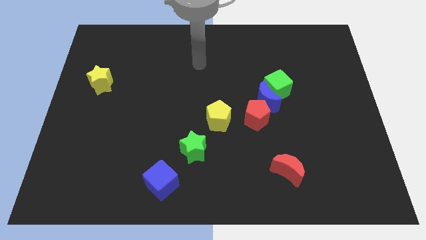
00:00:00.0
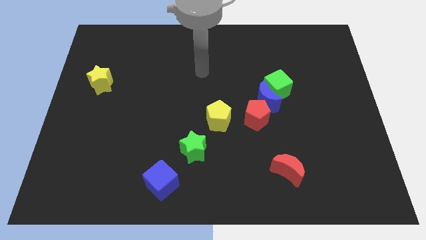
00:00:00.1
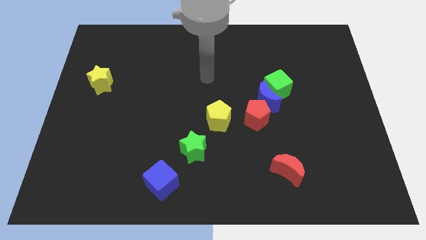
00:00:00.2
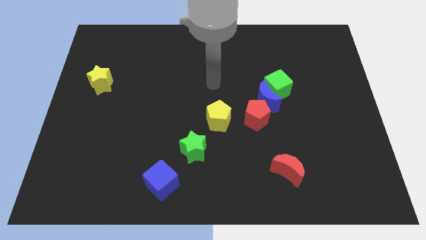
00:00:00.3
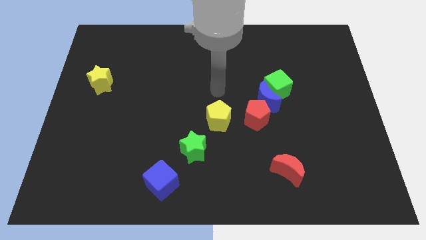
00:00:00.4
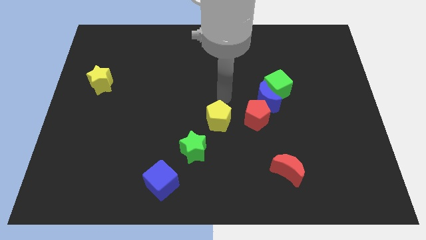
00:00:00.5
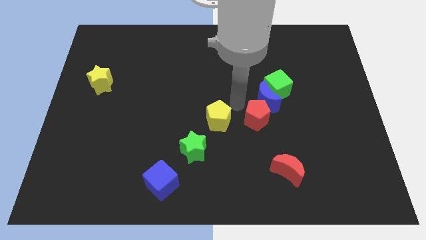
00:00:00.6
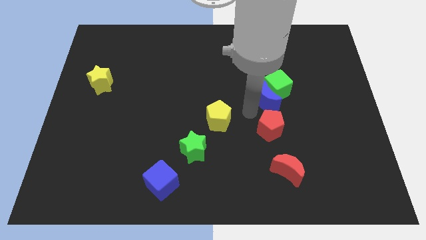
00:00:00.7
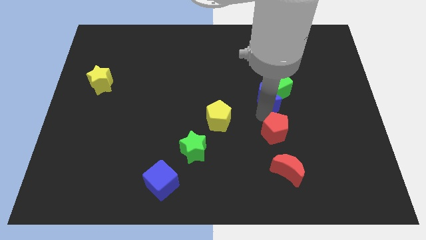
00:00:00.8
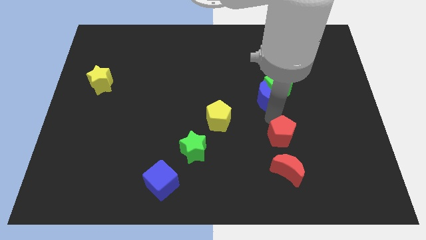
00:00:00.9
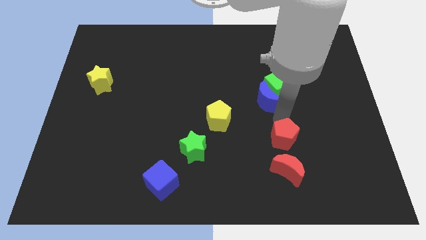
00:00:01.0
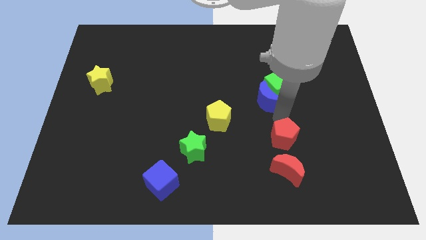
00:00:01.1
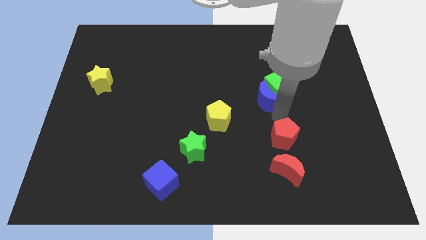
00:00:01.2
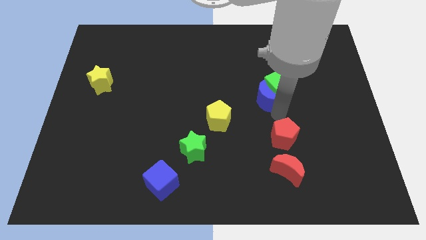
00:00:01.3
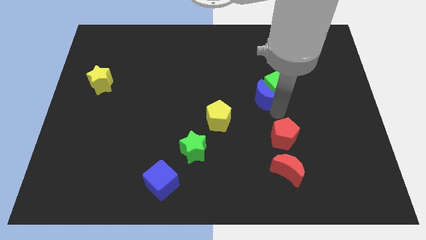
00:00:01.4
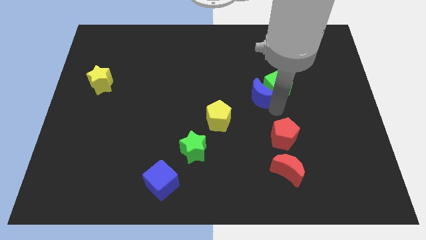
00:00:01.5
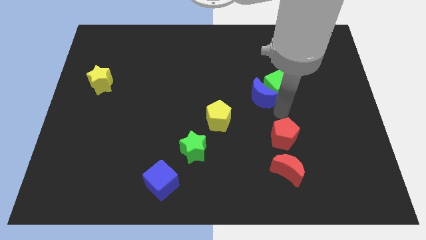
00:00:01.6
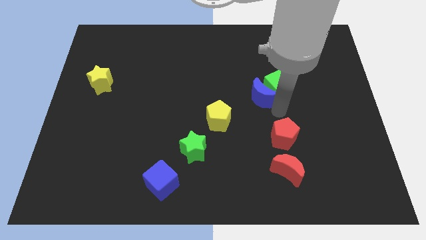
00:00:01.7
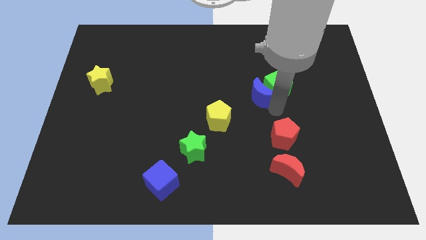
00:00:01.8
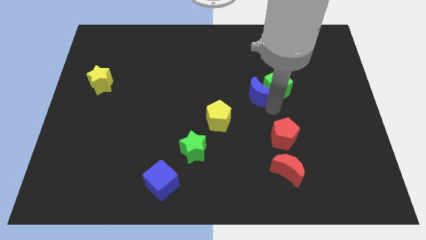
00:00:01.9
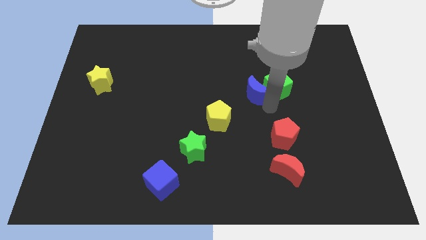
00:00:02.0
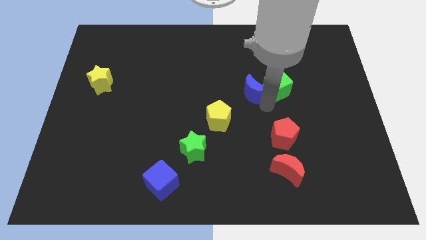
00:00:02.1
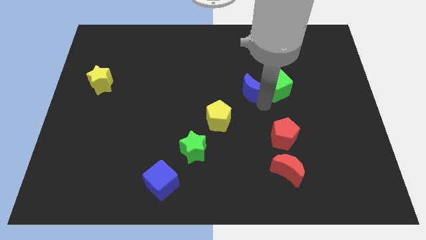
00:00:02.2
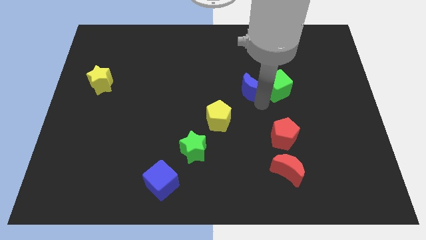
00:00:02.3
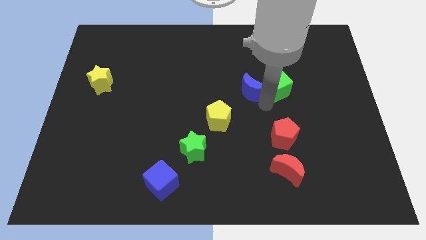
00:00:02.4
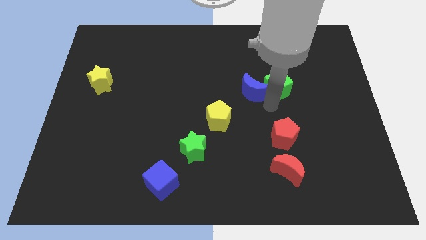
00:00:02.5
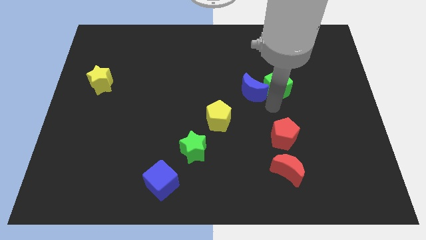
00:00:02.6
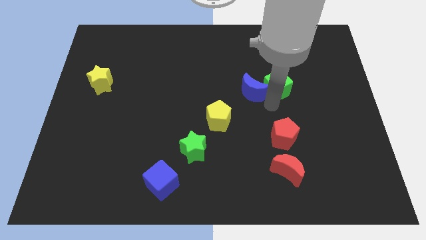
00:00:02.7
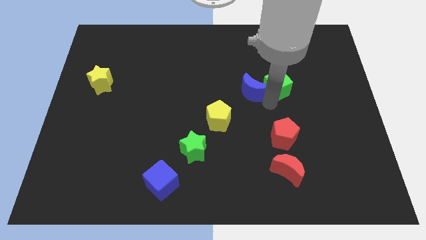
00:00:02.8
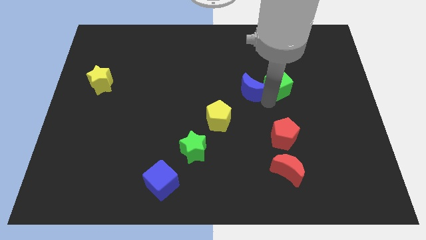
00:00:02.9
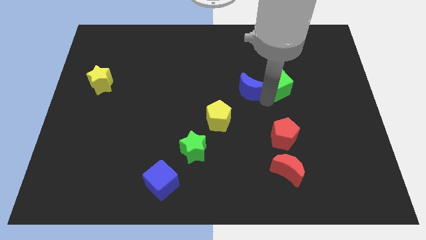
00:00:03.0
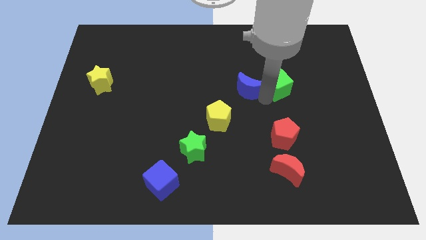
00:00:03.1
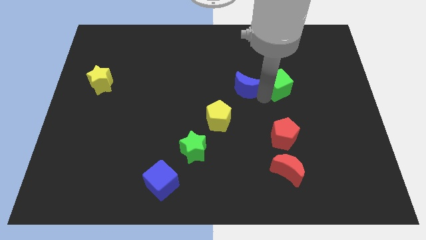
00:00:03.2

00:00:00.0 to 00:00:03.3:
separate the blue moon from the green cube and red pentagon

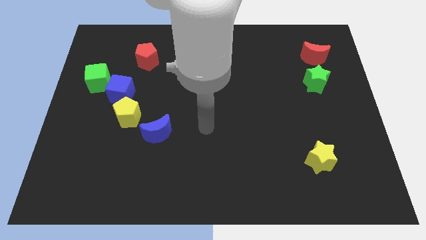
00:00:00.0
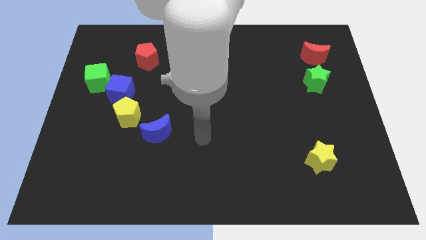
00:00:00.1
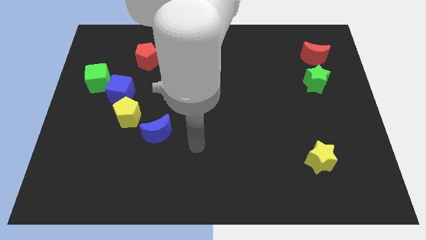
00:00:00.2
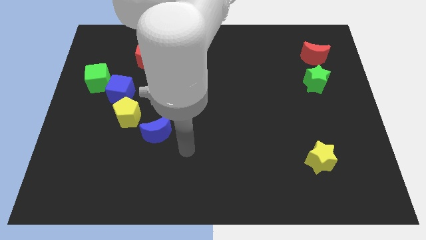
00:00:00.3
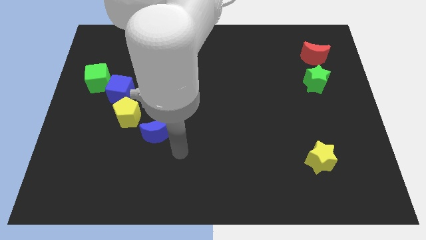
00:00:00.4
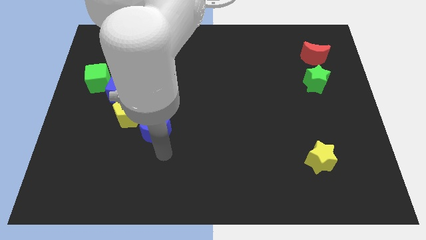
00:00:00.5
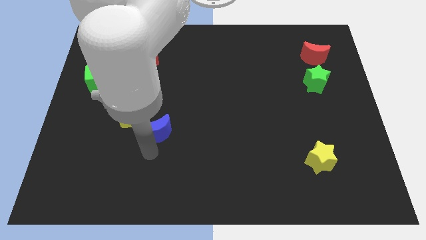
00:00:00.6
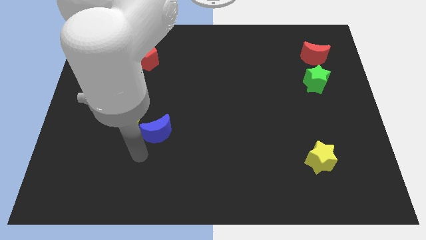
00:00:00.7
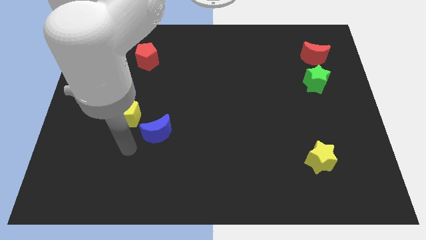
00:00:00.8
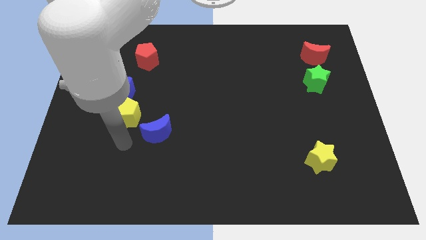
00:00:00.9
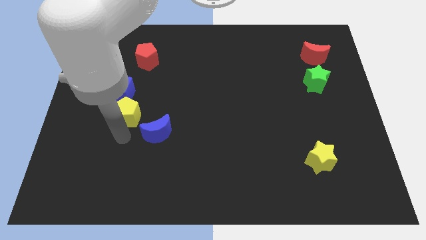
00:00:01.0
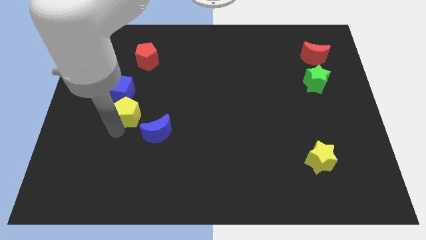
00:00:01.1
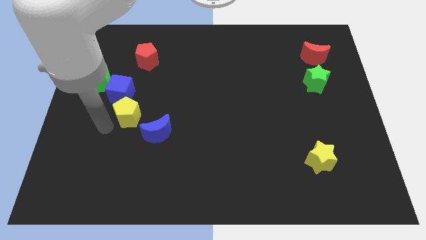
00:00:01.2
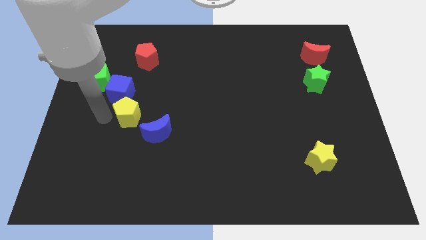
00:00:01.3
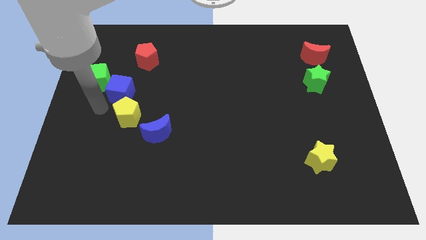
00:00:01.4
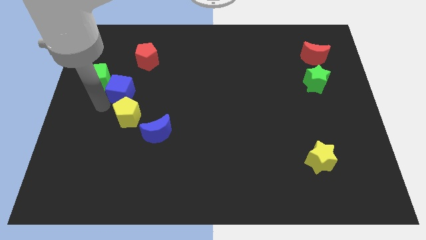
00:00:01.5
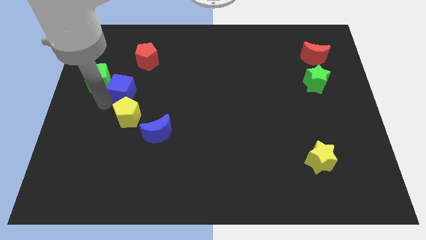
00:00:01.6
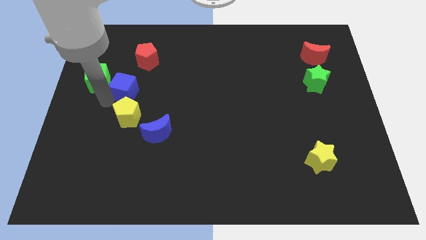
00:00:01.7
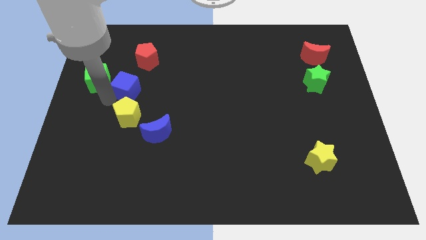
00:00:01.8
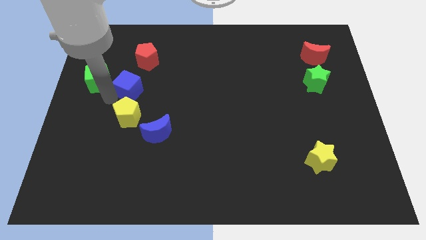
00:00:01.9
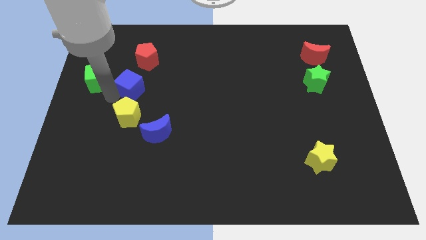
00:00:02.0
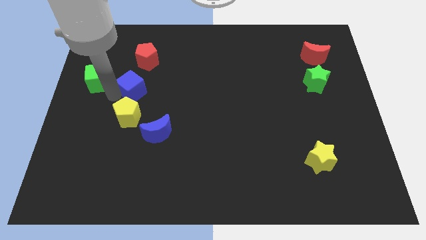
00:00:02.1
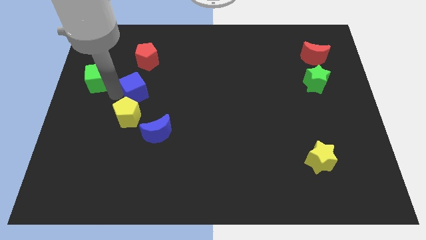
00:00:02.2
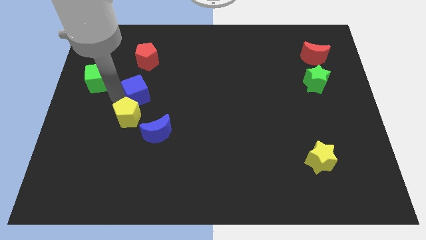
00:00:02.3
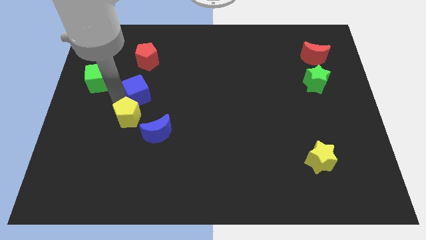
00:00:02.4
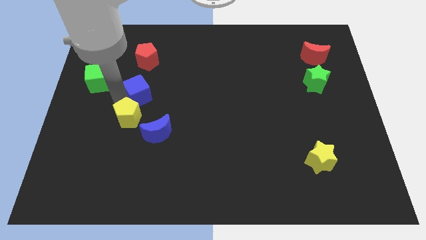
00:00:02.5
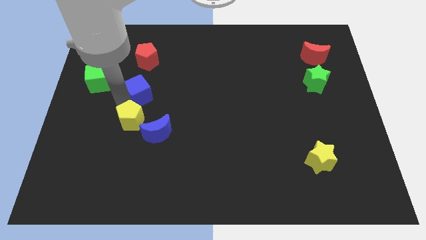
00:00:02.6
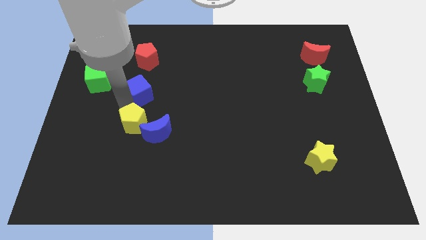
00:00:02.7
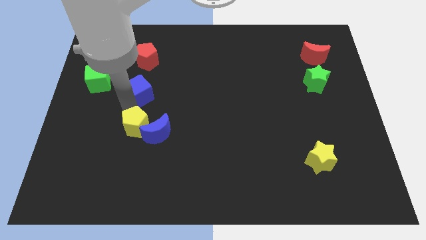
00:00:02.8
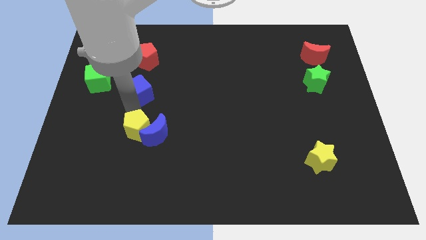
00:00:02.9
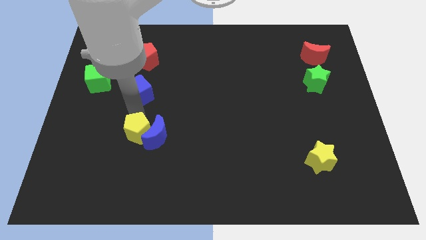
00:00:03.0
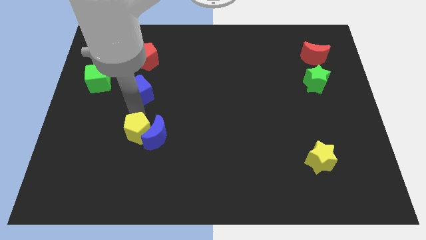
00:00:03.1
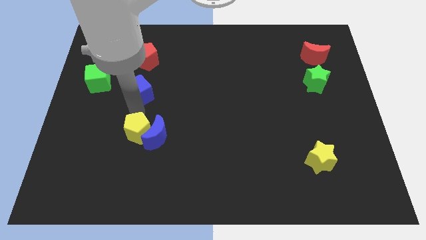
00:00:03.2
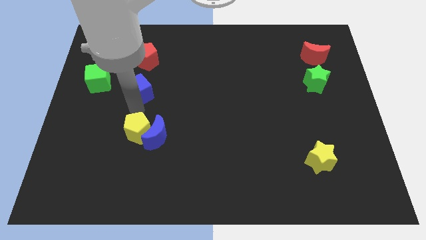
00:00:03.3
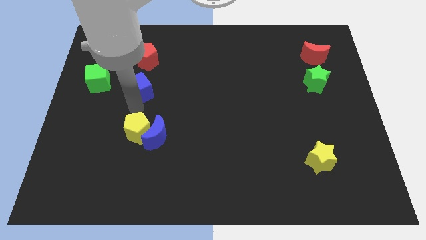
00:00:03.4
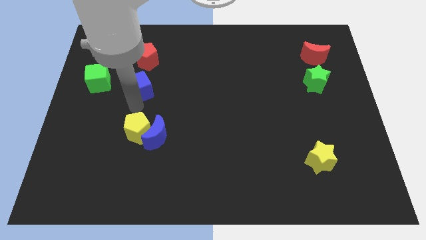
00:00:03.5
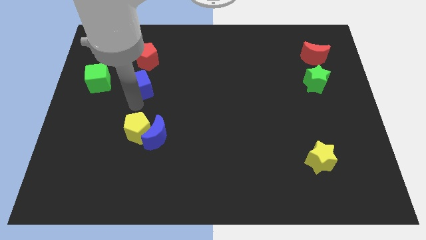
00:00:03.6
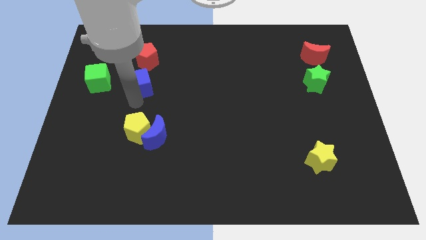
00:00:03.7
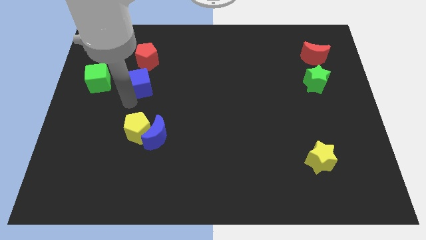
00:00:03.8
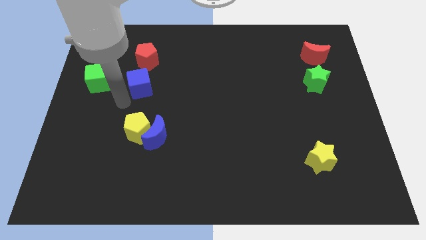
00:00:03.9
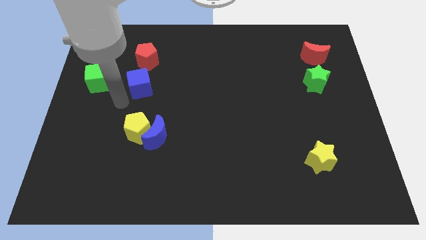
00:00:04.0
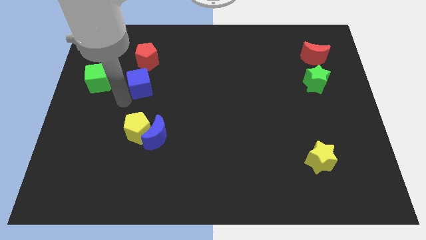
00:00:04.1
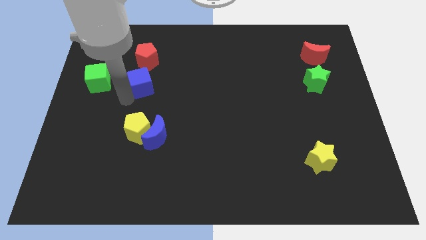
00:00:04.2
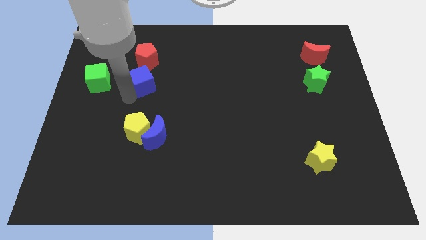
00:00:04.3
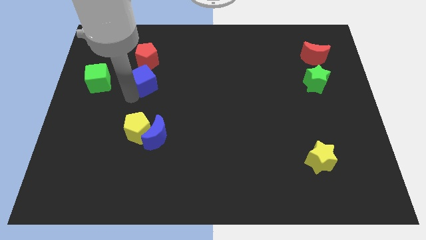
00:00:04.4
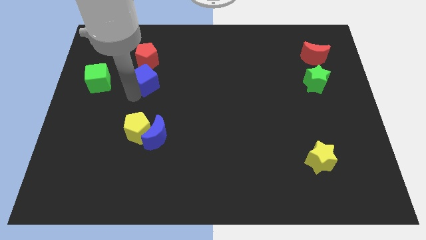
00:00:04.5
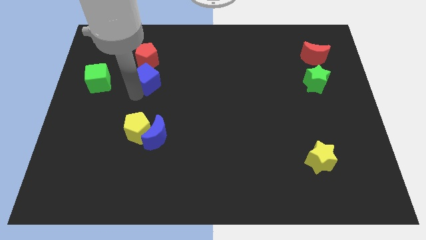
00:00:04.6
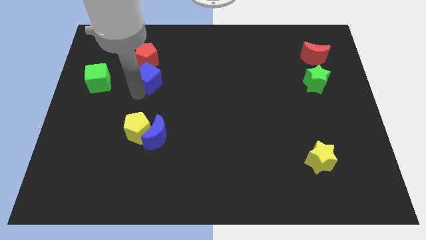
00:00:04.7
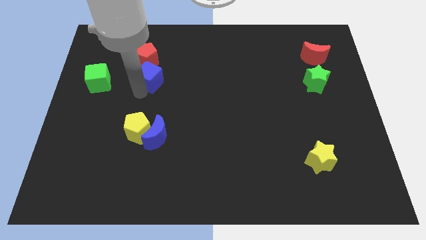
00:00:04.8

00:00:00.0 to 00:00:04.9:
pull the blue cube apart from the yellow pentagon and green cube

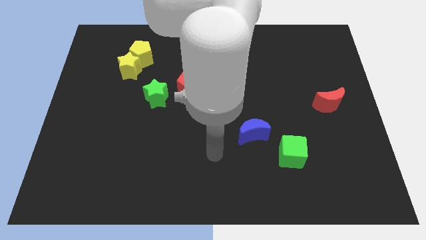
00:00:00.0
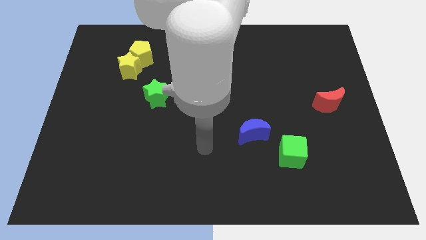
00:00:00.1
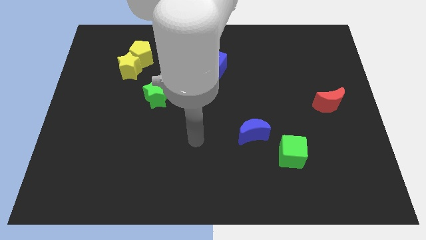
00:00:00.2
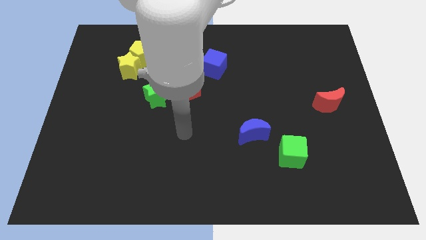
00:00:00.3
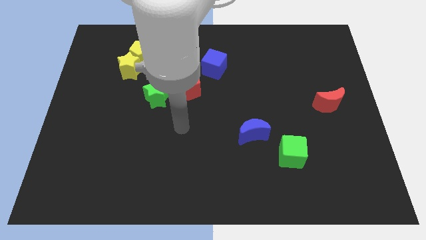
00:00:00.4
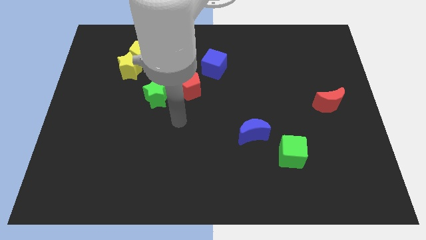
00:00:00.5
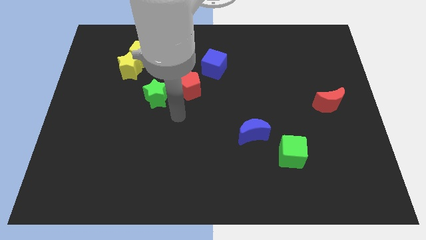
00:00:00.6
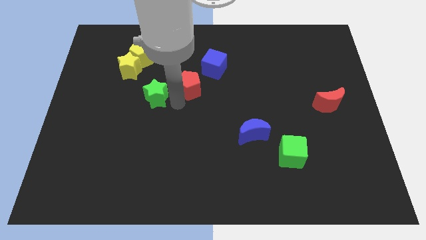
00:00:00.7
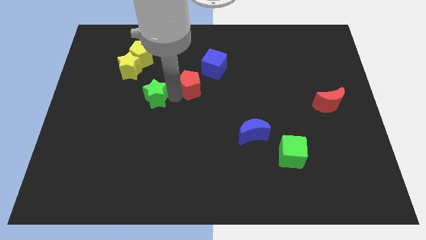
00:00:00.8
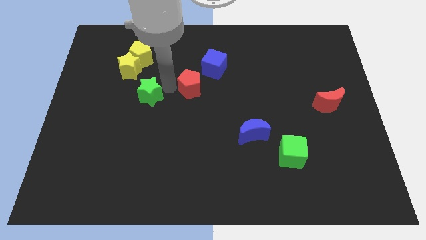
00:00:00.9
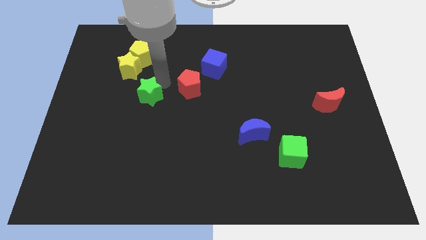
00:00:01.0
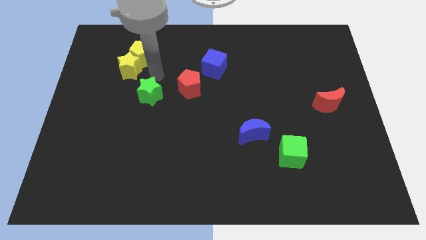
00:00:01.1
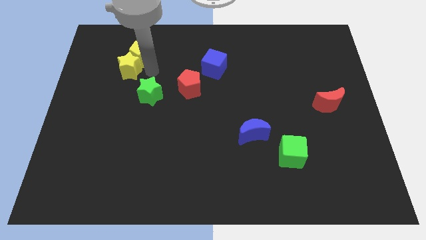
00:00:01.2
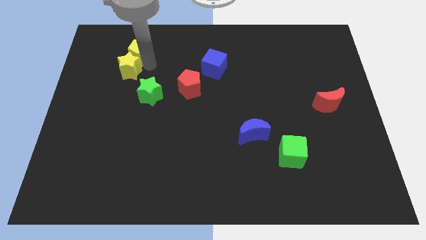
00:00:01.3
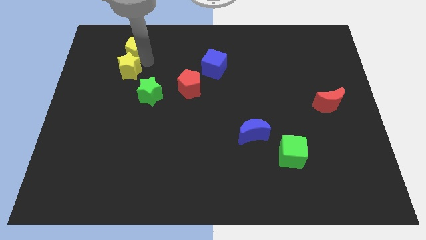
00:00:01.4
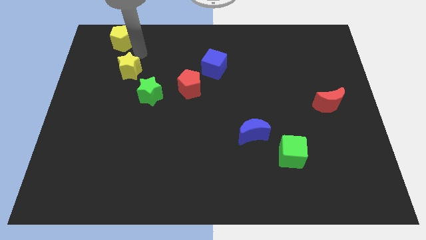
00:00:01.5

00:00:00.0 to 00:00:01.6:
move the yellow star away from the yellow pentagon
